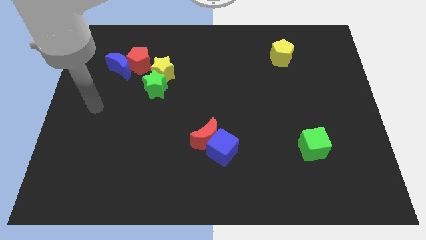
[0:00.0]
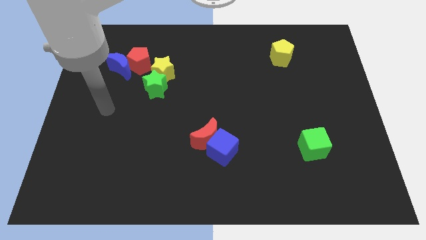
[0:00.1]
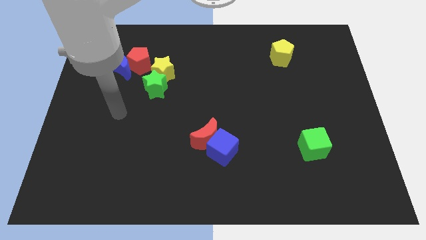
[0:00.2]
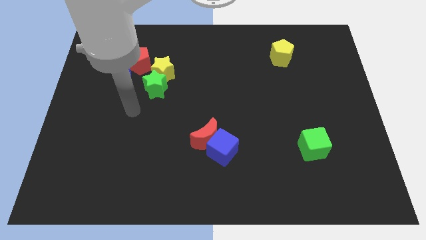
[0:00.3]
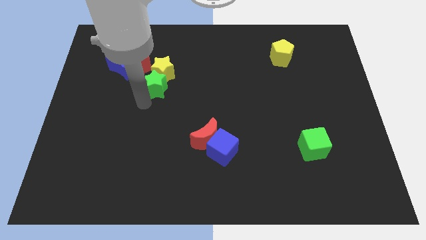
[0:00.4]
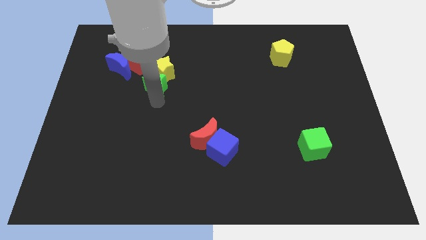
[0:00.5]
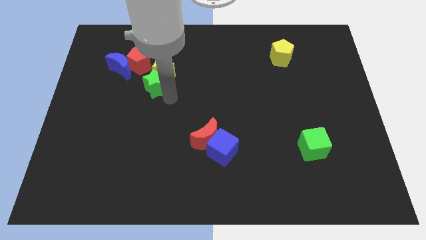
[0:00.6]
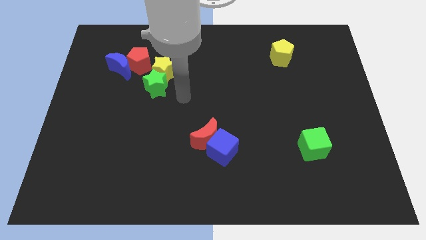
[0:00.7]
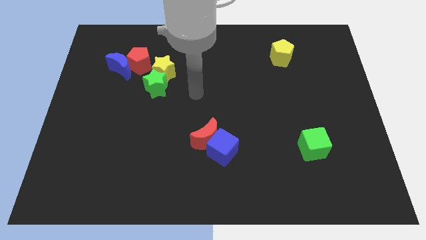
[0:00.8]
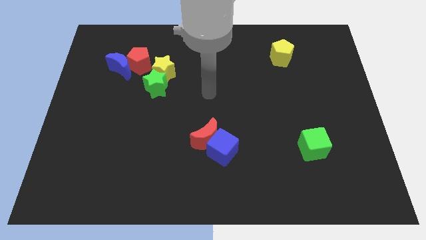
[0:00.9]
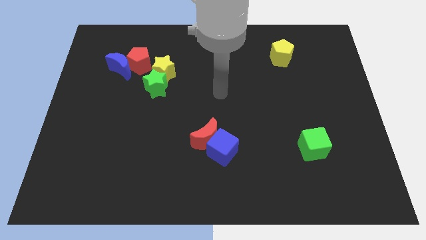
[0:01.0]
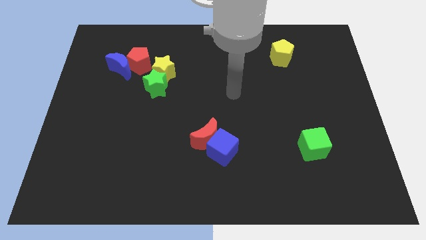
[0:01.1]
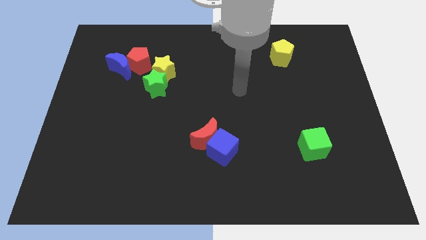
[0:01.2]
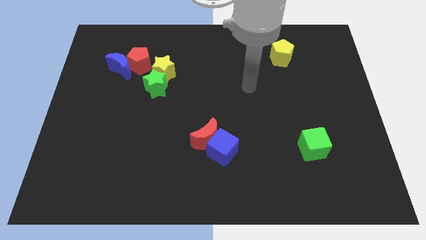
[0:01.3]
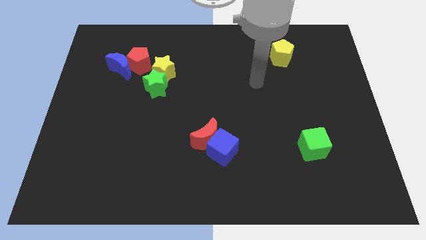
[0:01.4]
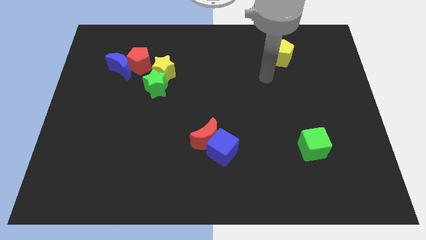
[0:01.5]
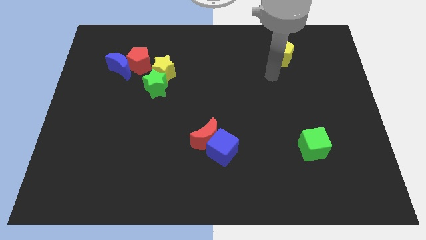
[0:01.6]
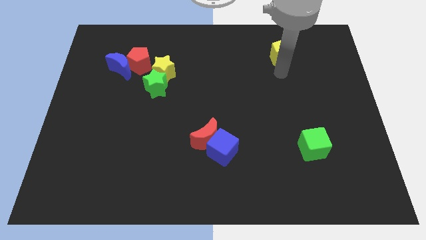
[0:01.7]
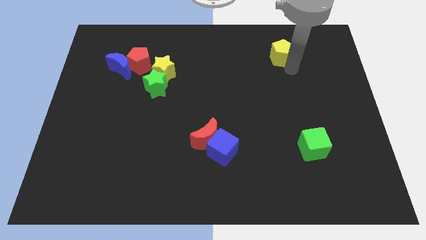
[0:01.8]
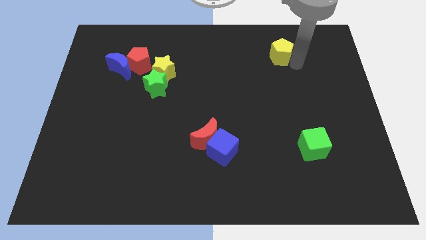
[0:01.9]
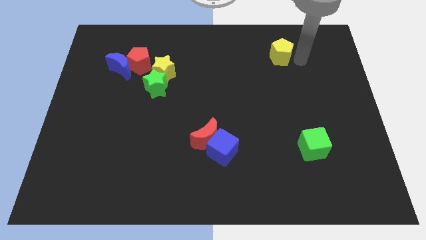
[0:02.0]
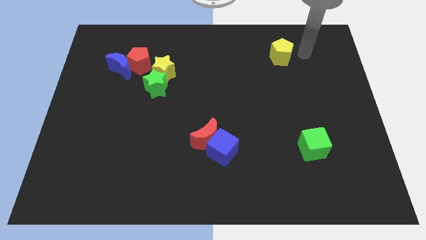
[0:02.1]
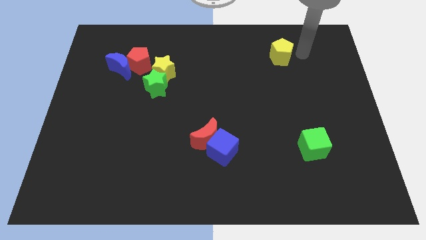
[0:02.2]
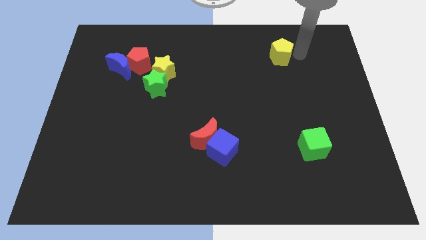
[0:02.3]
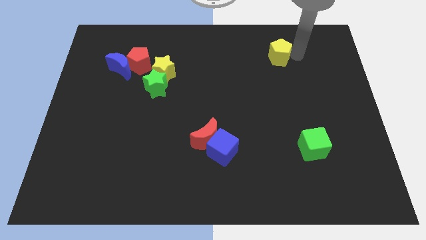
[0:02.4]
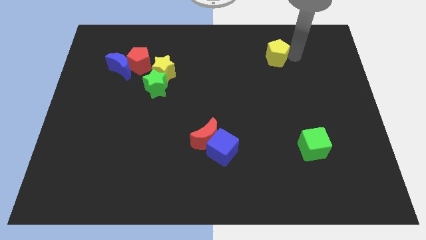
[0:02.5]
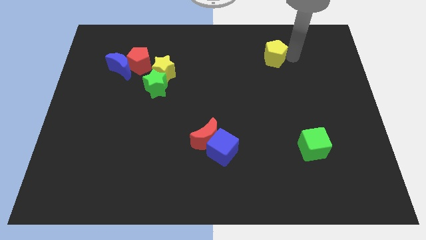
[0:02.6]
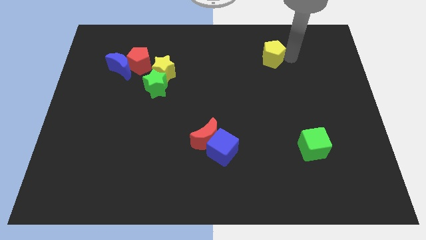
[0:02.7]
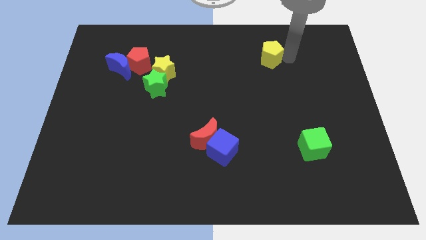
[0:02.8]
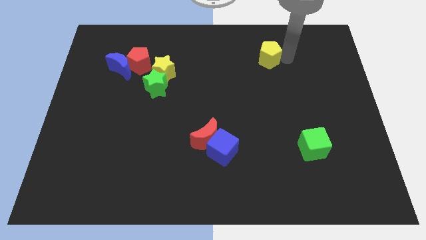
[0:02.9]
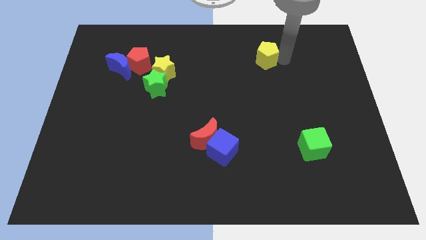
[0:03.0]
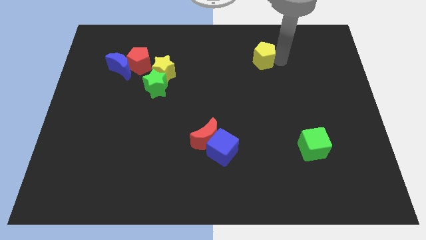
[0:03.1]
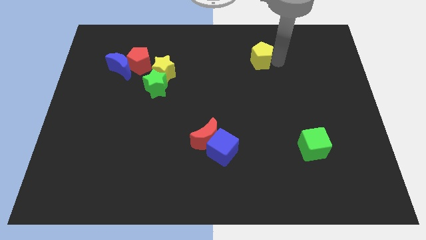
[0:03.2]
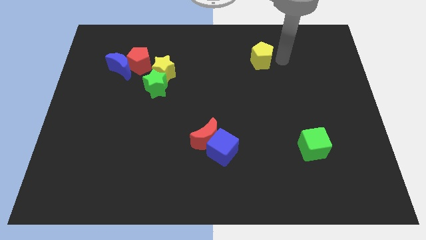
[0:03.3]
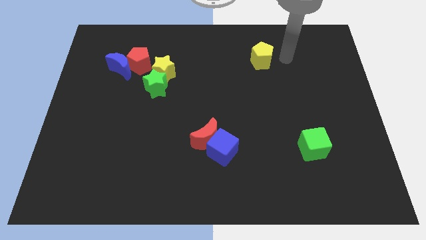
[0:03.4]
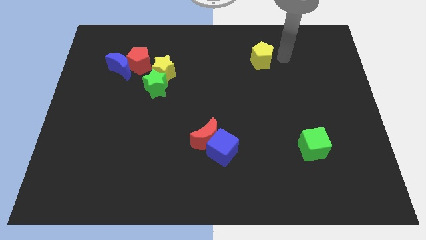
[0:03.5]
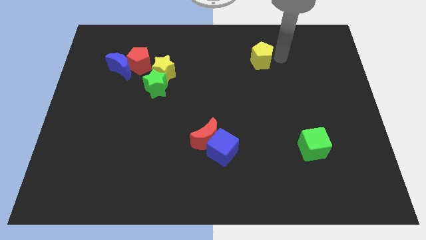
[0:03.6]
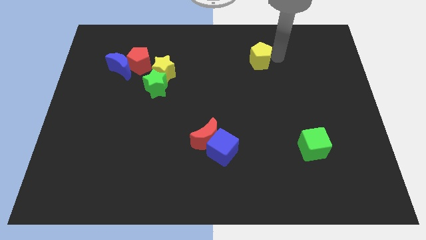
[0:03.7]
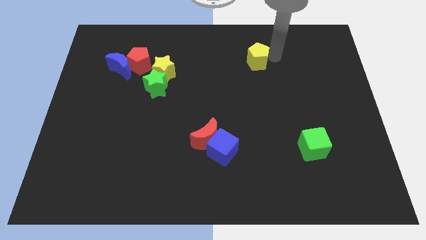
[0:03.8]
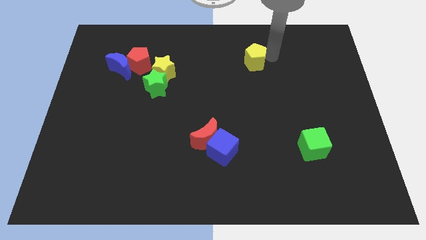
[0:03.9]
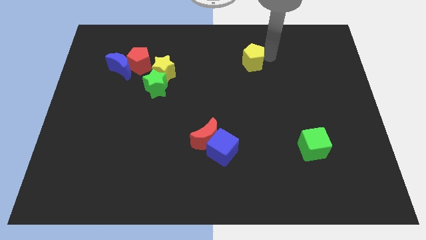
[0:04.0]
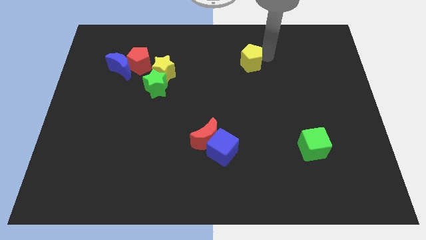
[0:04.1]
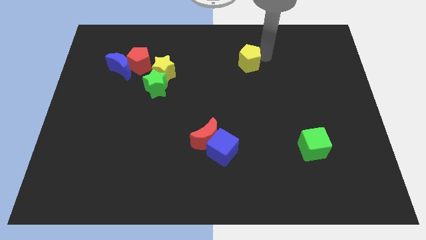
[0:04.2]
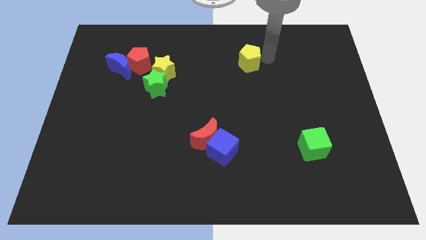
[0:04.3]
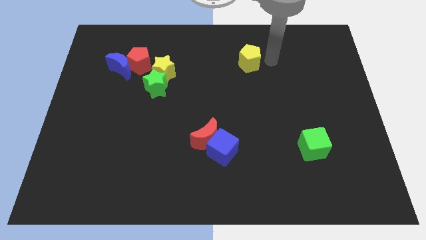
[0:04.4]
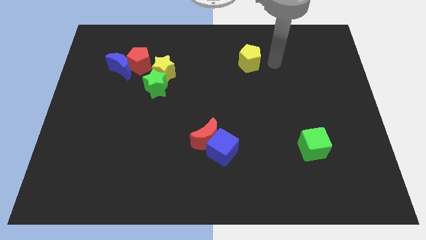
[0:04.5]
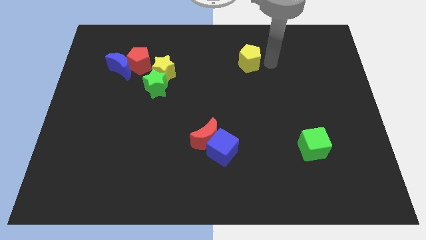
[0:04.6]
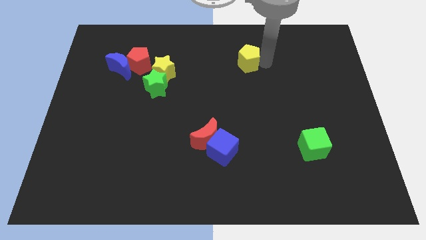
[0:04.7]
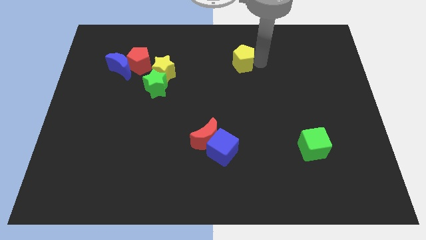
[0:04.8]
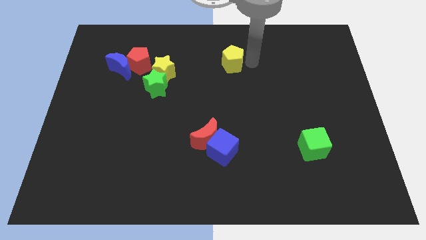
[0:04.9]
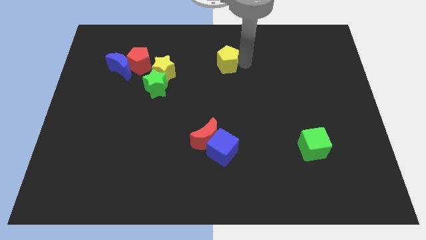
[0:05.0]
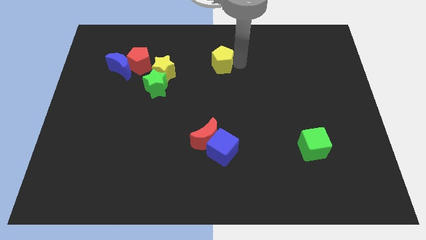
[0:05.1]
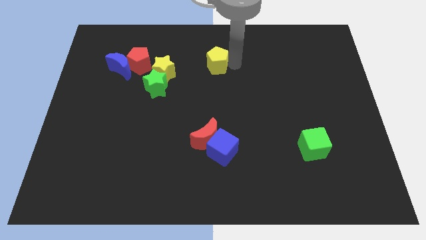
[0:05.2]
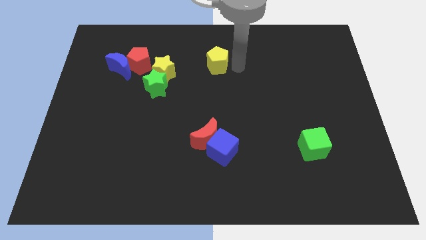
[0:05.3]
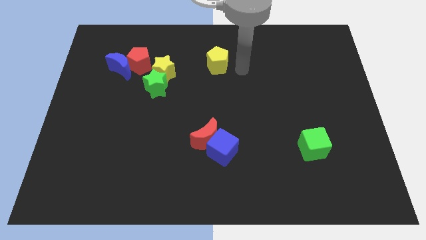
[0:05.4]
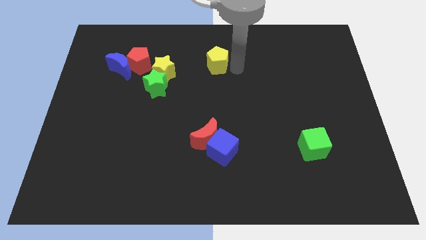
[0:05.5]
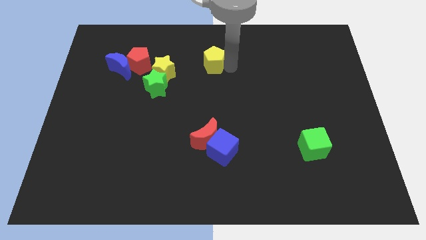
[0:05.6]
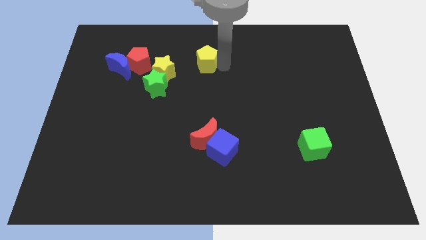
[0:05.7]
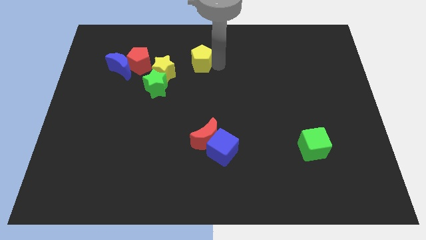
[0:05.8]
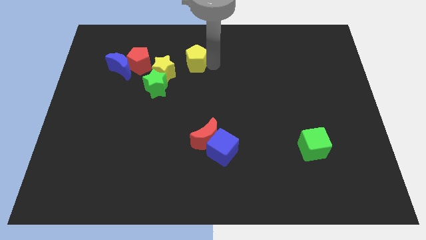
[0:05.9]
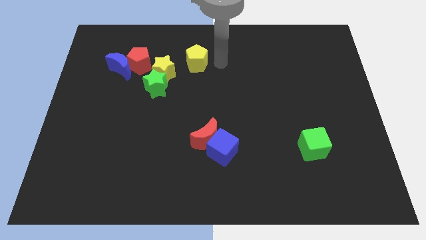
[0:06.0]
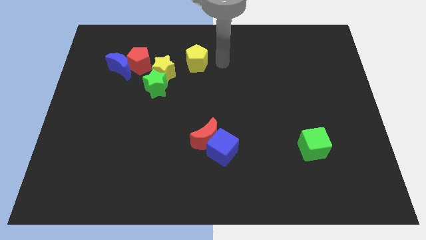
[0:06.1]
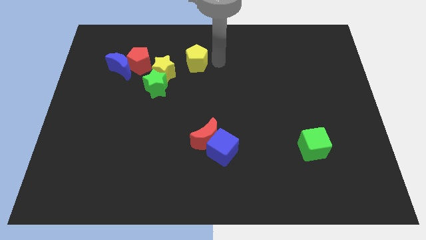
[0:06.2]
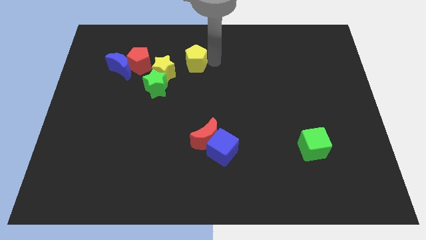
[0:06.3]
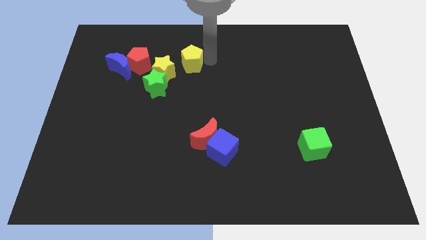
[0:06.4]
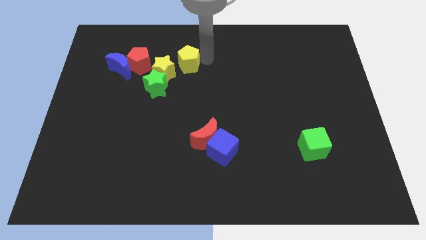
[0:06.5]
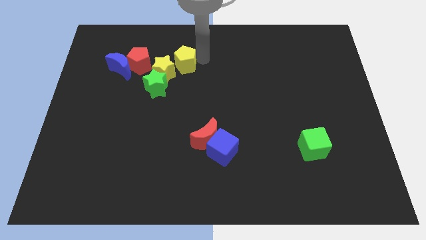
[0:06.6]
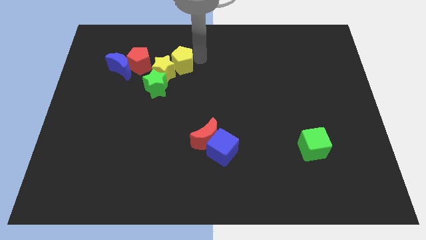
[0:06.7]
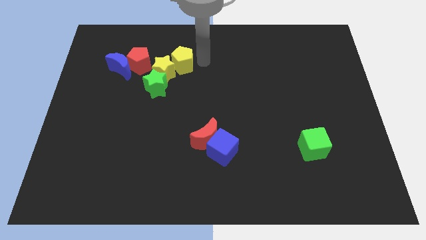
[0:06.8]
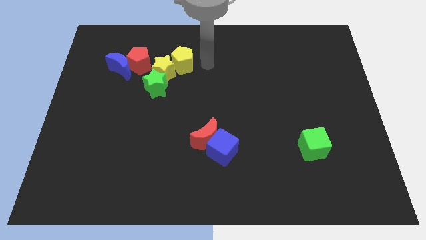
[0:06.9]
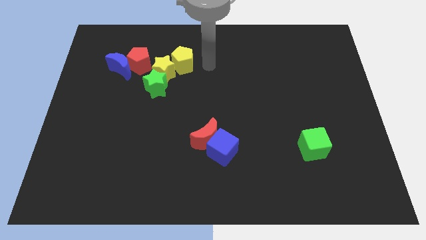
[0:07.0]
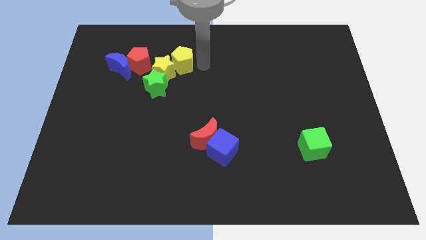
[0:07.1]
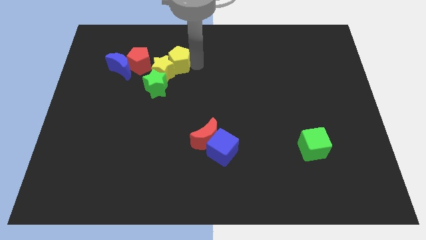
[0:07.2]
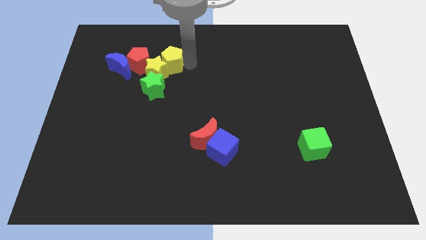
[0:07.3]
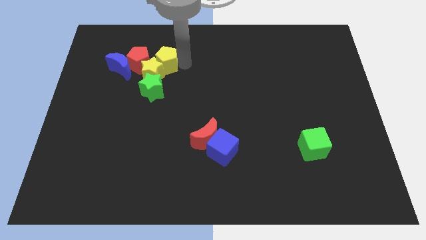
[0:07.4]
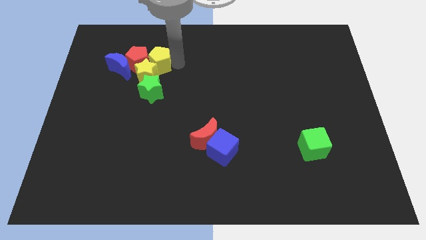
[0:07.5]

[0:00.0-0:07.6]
put the yellow pentagon next to the red pentagon

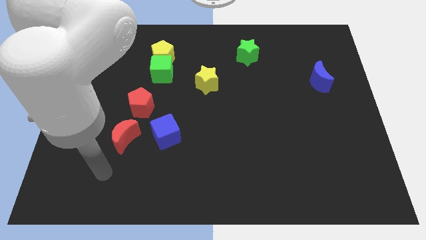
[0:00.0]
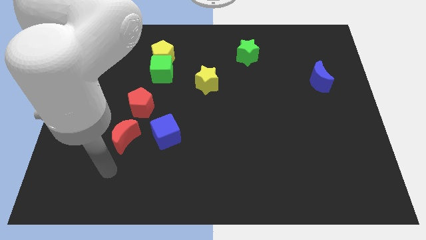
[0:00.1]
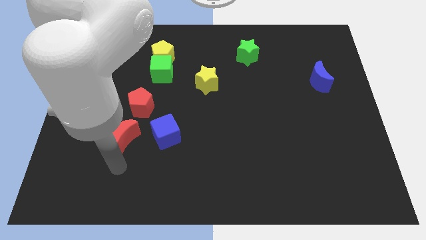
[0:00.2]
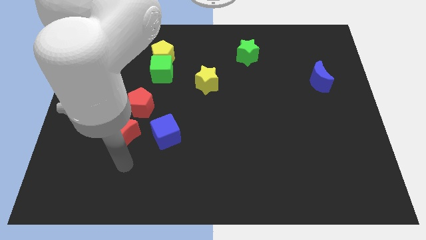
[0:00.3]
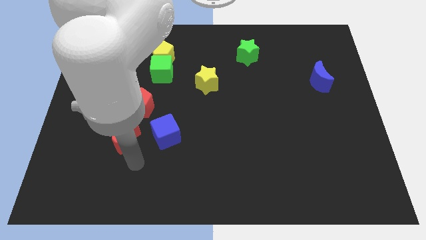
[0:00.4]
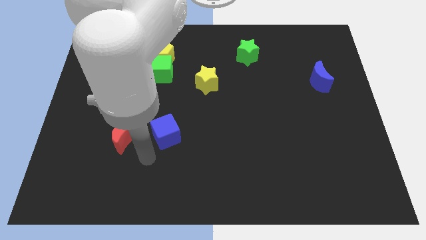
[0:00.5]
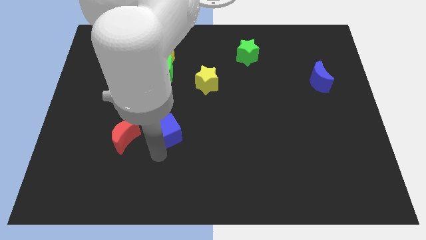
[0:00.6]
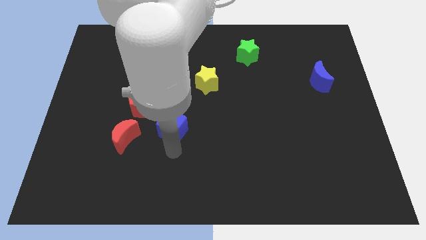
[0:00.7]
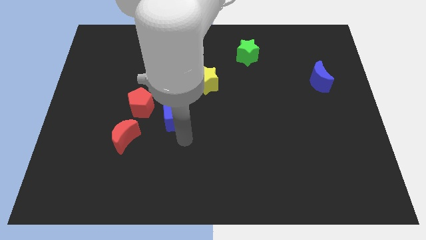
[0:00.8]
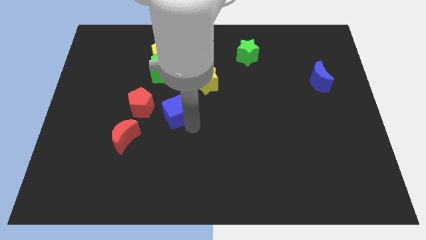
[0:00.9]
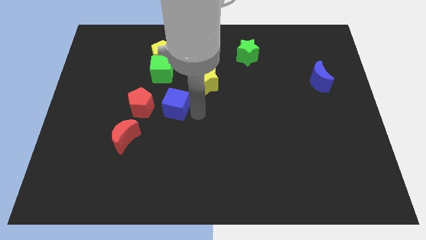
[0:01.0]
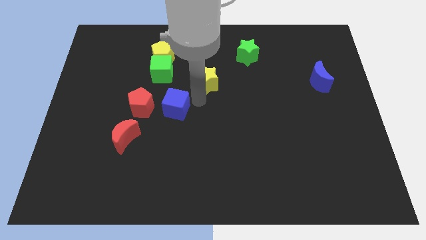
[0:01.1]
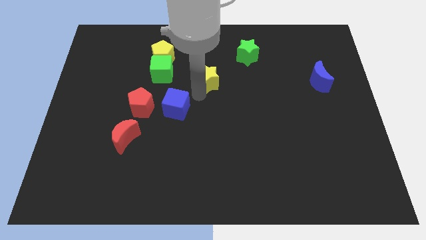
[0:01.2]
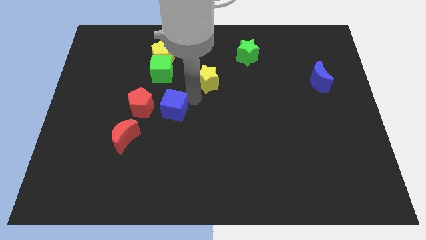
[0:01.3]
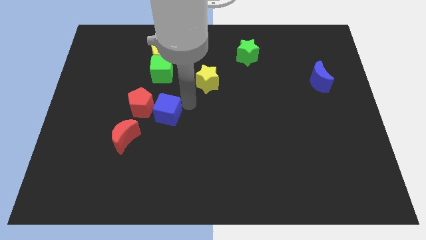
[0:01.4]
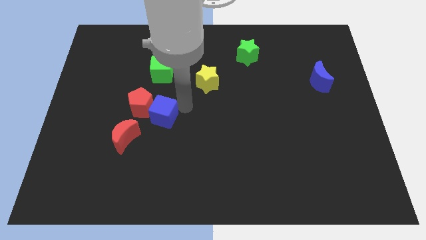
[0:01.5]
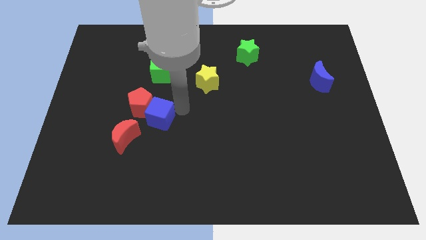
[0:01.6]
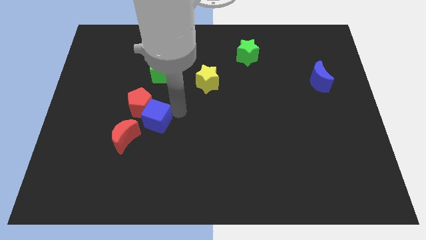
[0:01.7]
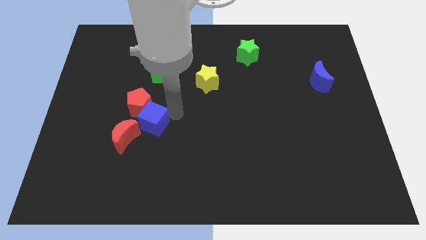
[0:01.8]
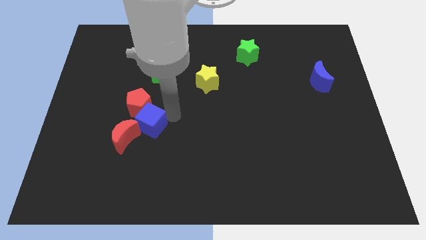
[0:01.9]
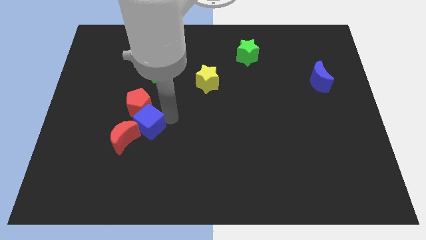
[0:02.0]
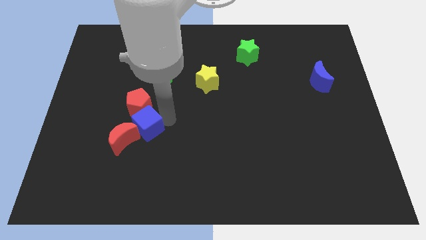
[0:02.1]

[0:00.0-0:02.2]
put the blue cube towards the red moon
